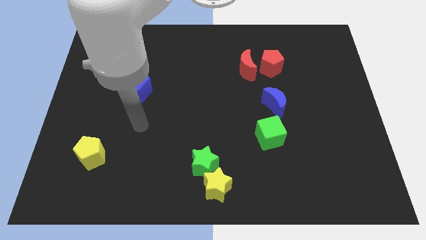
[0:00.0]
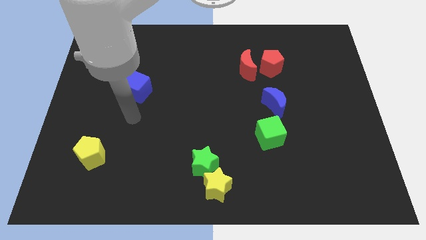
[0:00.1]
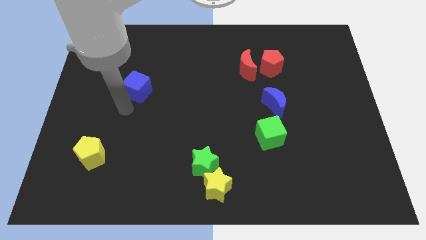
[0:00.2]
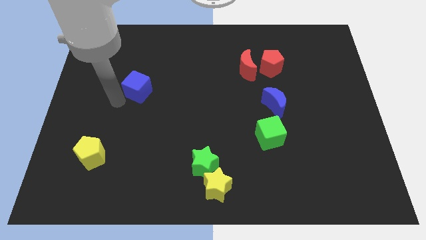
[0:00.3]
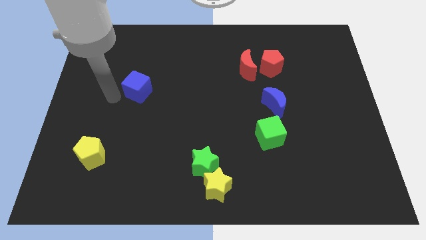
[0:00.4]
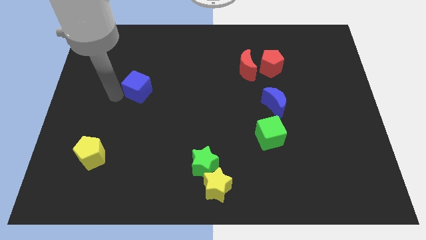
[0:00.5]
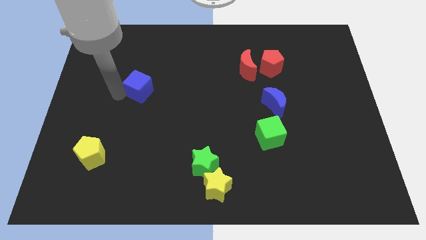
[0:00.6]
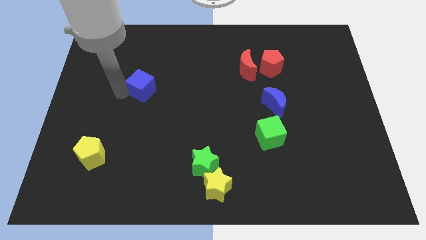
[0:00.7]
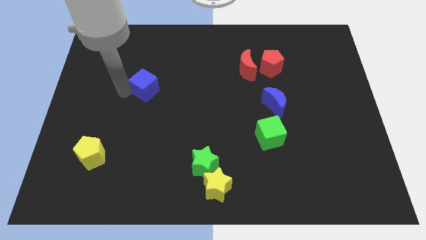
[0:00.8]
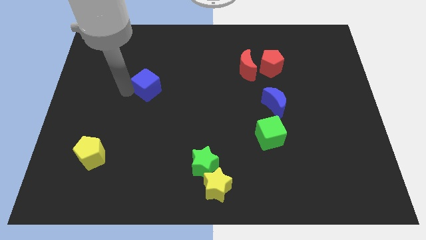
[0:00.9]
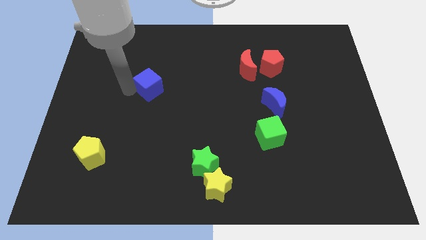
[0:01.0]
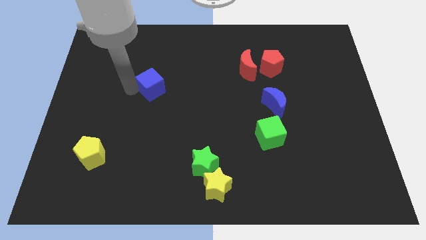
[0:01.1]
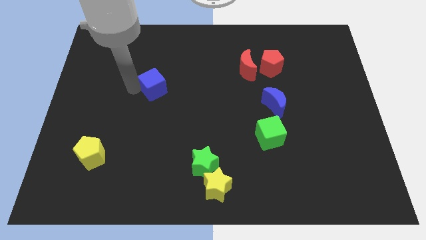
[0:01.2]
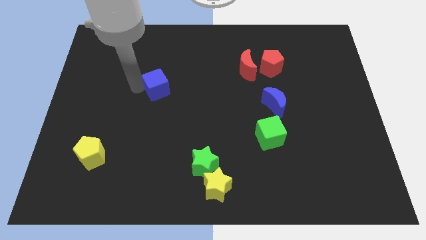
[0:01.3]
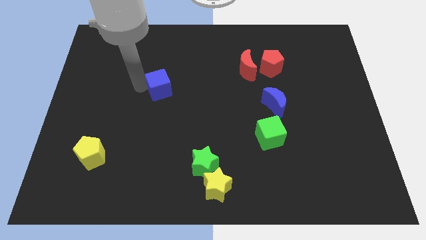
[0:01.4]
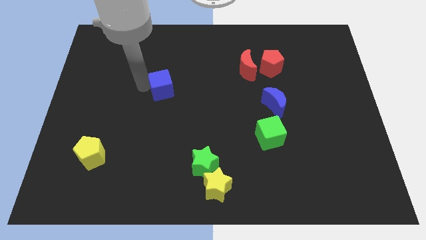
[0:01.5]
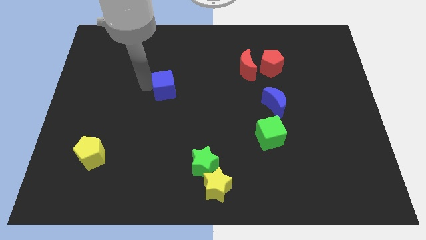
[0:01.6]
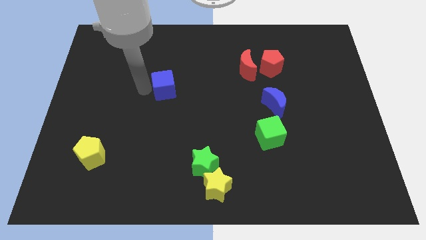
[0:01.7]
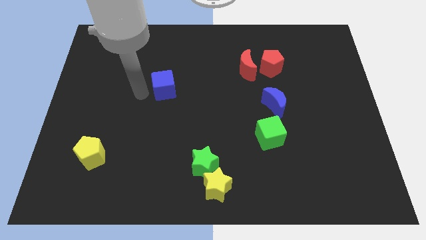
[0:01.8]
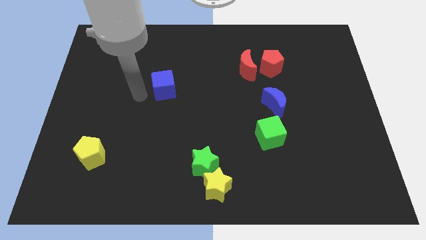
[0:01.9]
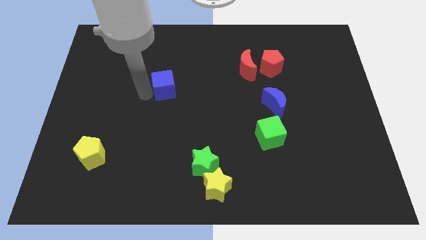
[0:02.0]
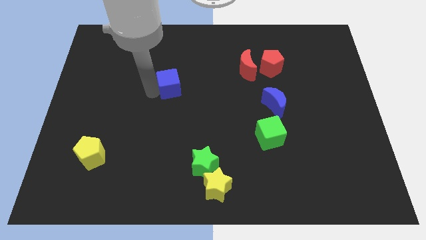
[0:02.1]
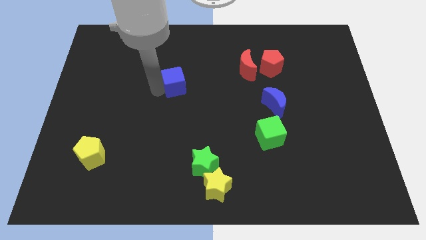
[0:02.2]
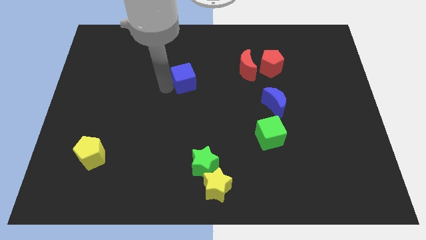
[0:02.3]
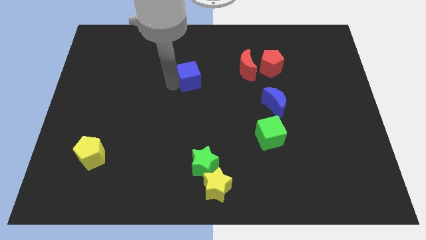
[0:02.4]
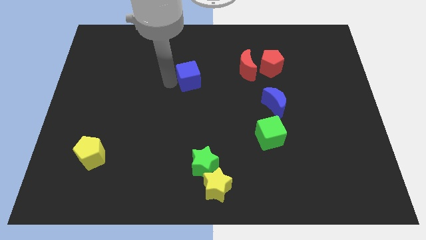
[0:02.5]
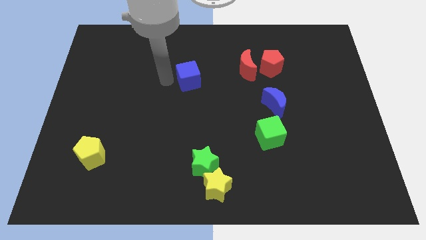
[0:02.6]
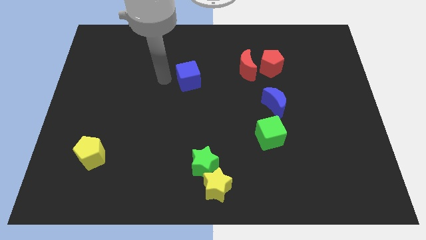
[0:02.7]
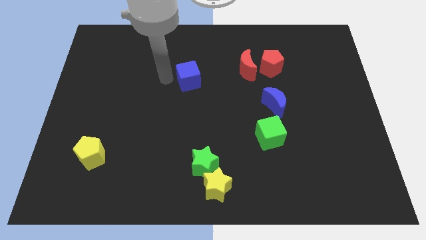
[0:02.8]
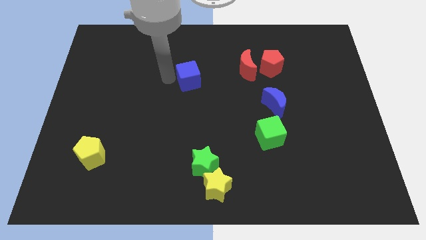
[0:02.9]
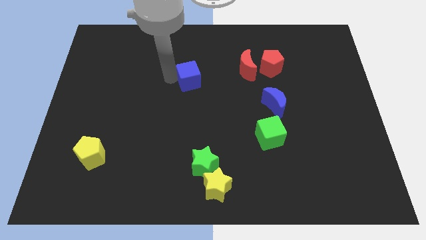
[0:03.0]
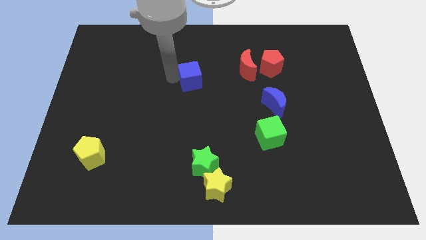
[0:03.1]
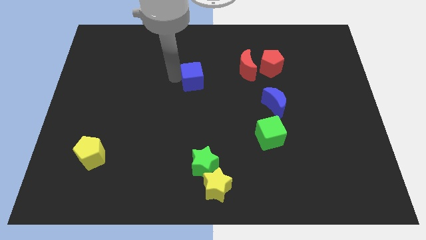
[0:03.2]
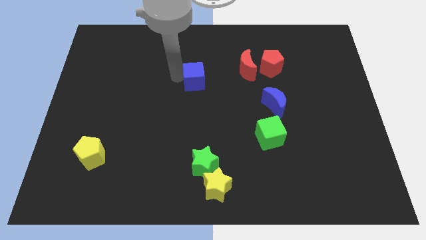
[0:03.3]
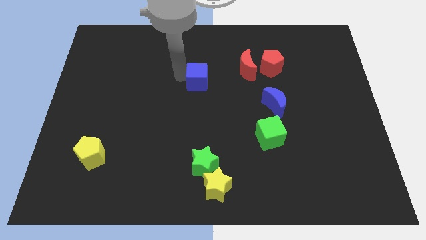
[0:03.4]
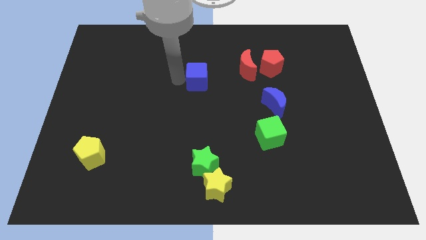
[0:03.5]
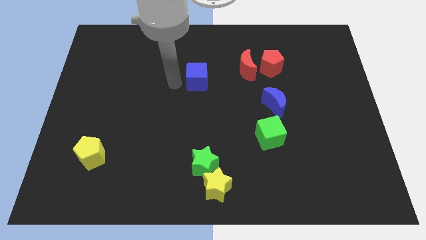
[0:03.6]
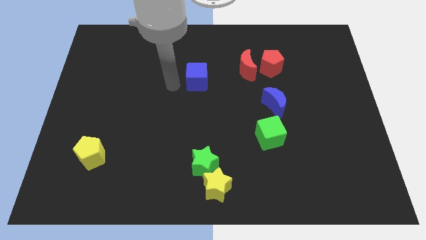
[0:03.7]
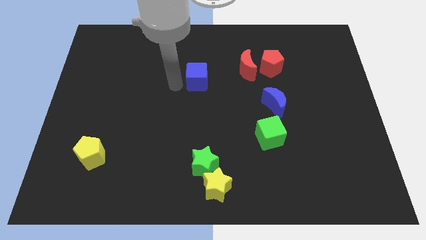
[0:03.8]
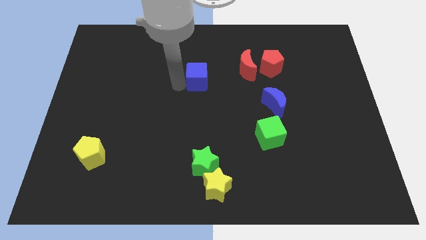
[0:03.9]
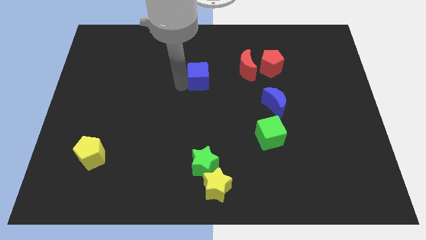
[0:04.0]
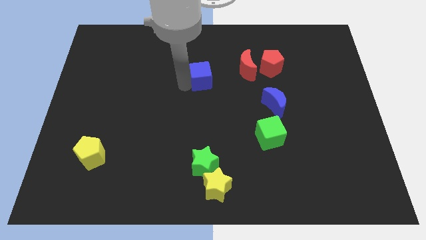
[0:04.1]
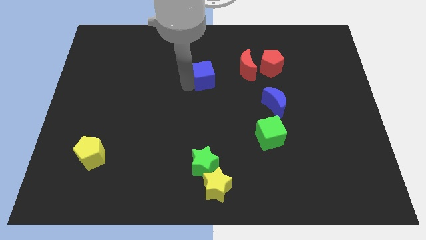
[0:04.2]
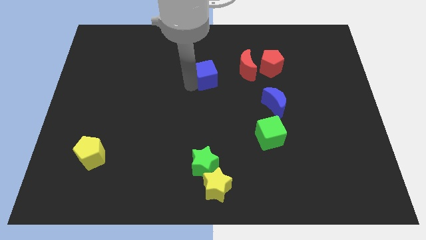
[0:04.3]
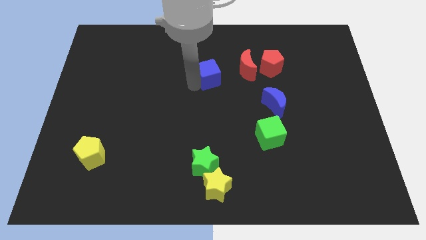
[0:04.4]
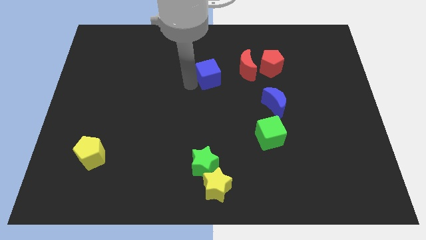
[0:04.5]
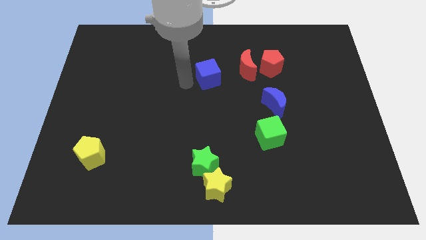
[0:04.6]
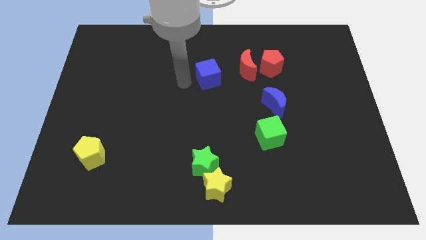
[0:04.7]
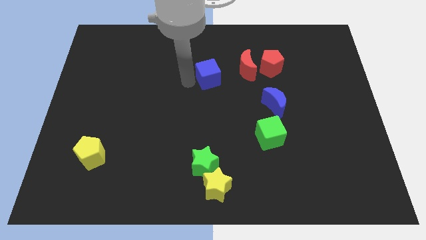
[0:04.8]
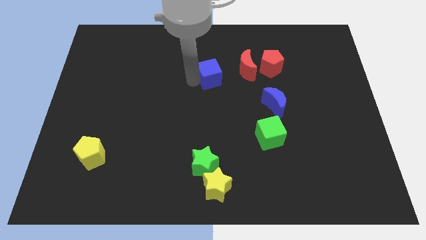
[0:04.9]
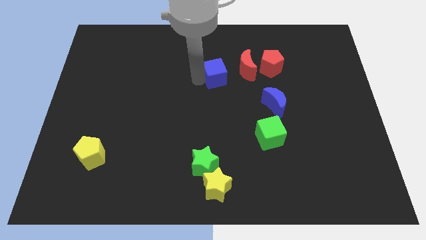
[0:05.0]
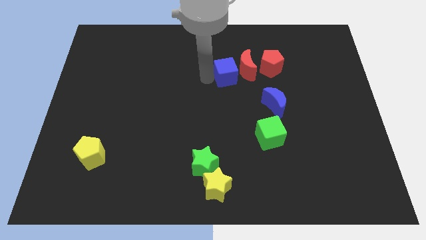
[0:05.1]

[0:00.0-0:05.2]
slide the blue cube next to the red moon

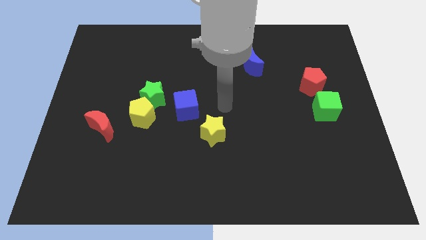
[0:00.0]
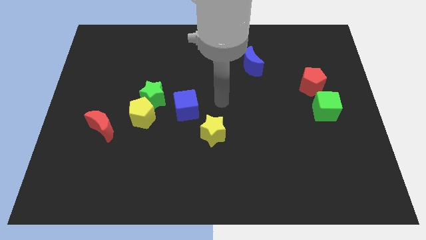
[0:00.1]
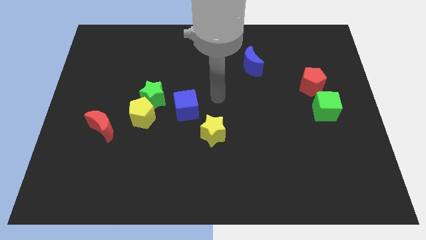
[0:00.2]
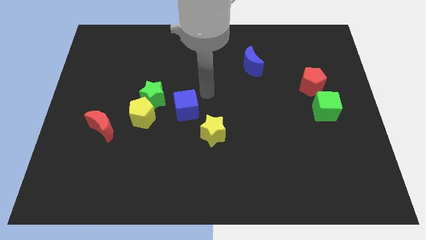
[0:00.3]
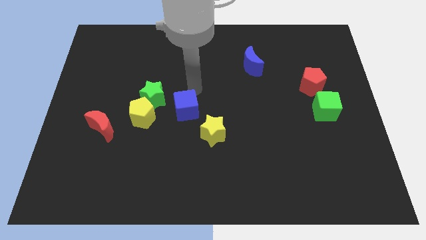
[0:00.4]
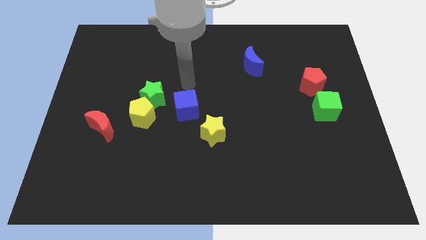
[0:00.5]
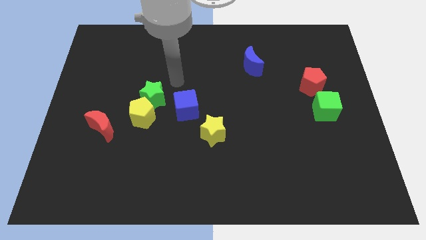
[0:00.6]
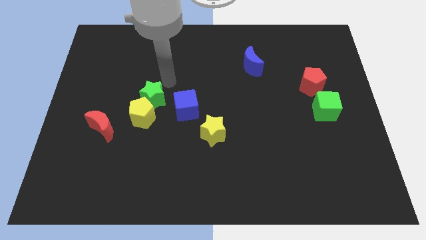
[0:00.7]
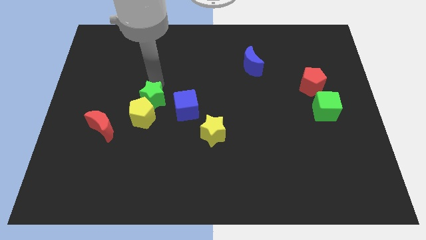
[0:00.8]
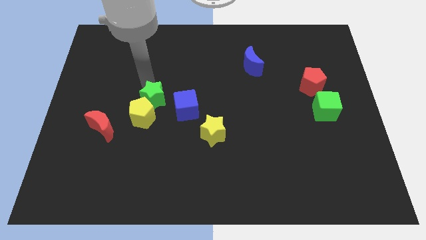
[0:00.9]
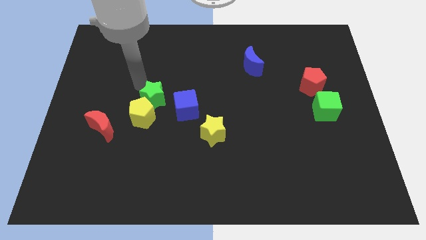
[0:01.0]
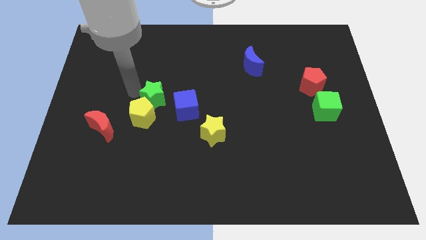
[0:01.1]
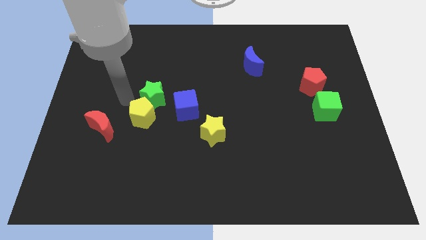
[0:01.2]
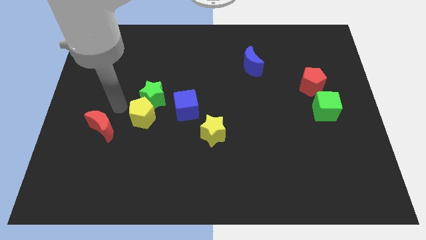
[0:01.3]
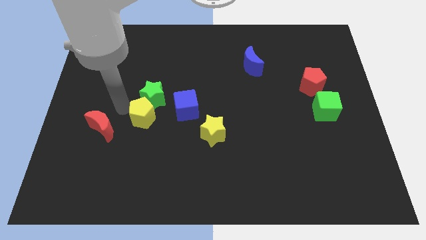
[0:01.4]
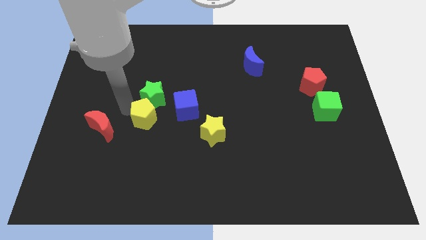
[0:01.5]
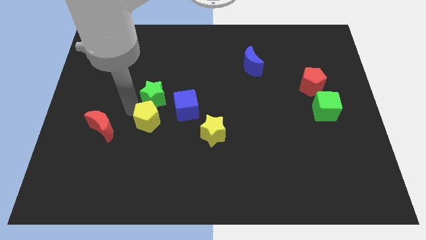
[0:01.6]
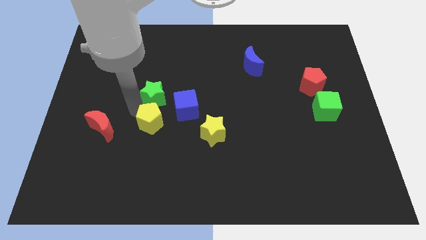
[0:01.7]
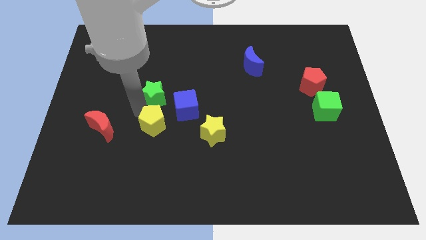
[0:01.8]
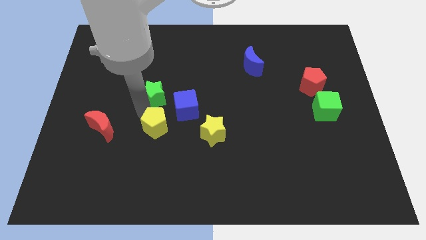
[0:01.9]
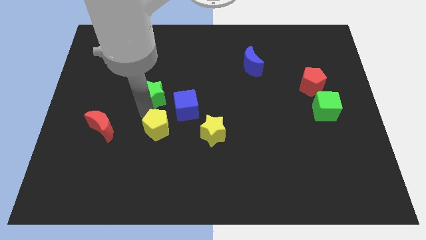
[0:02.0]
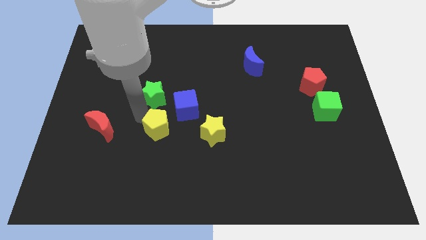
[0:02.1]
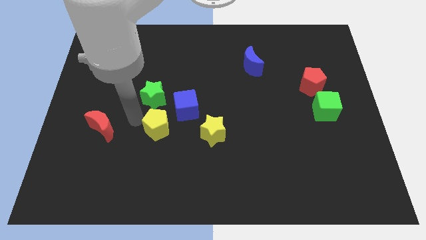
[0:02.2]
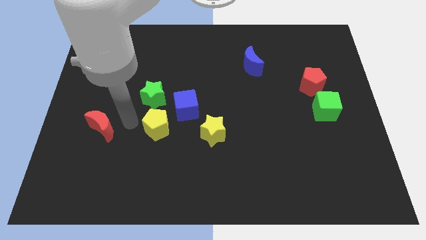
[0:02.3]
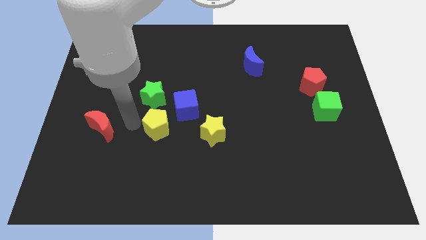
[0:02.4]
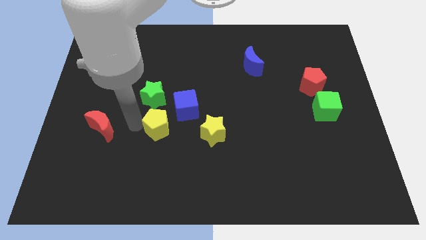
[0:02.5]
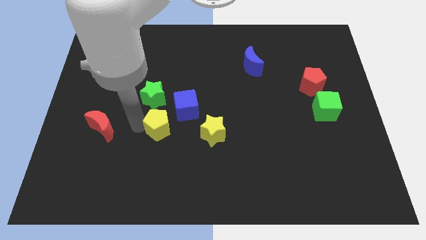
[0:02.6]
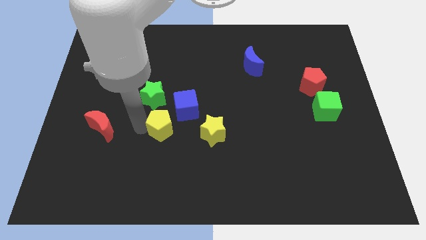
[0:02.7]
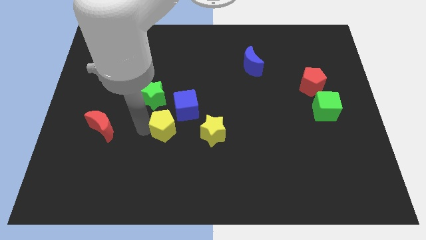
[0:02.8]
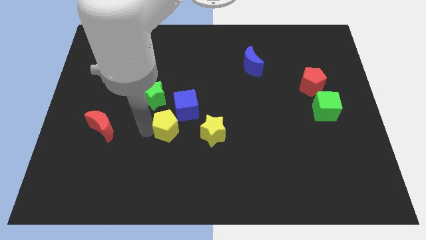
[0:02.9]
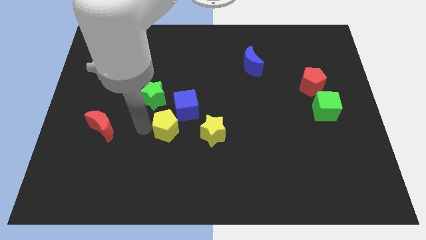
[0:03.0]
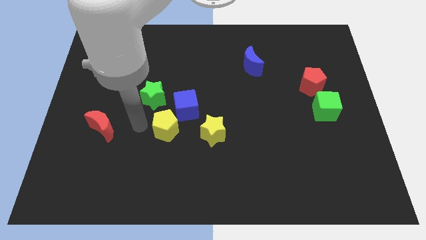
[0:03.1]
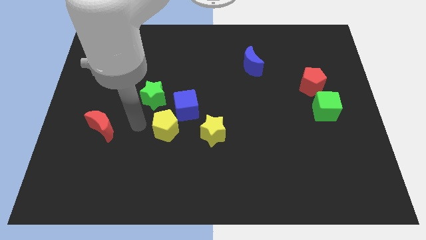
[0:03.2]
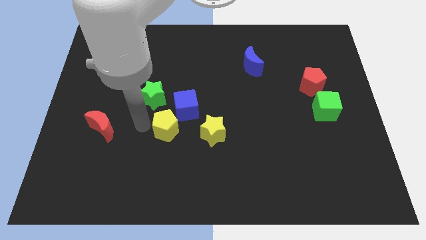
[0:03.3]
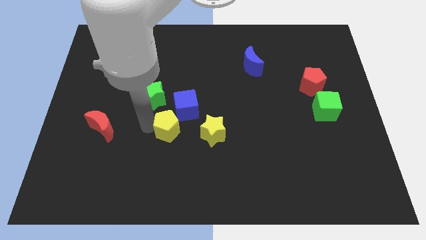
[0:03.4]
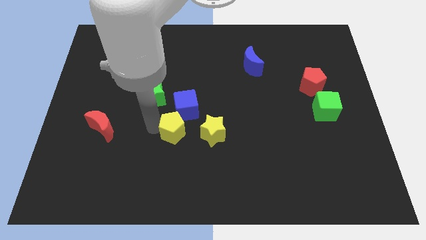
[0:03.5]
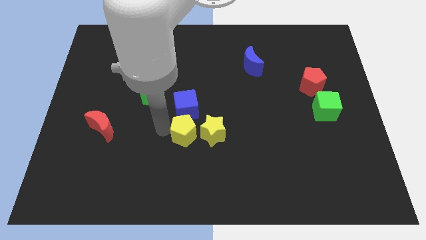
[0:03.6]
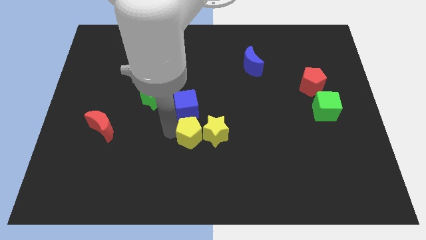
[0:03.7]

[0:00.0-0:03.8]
put the yellow pentagon to the yellow star
